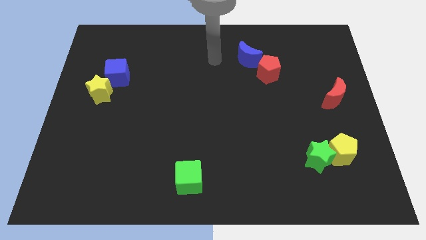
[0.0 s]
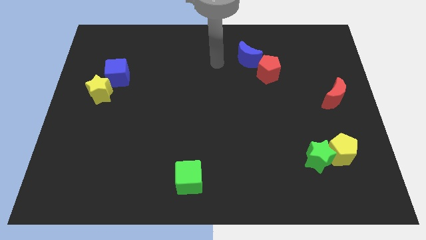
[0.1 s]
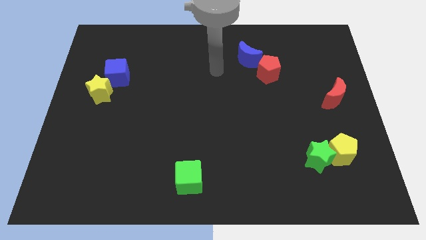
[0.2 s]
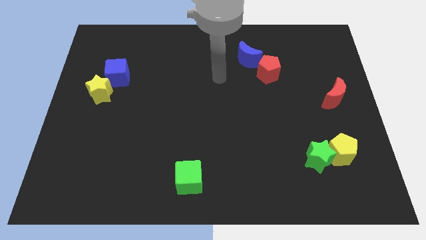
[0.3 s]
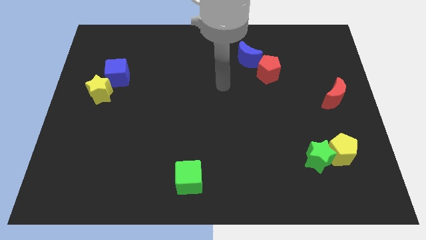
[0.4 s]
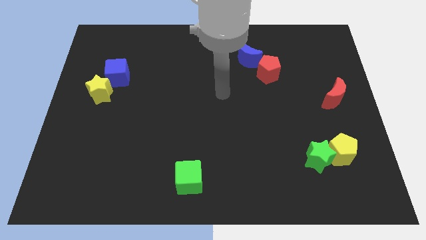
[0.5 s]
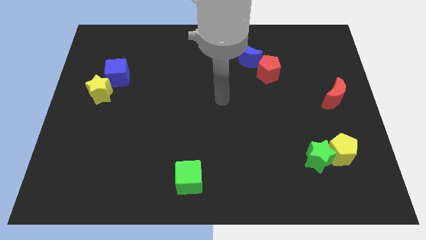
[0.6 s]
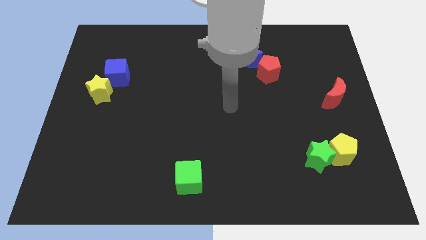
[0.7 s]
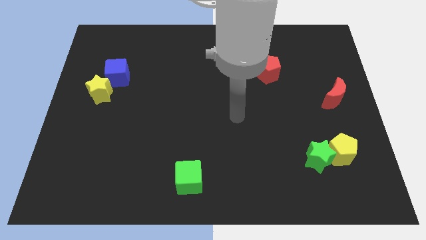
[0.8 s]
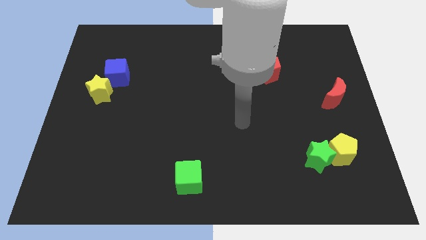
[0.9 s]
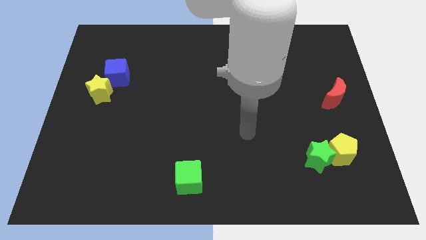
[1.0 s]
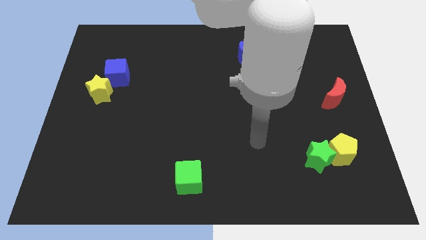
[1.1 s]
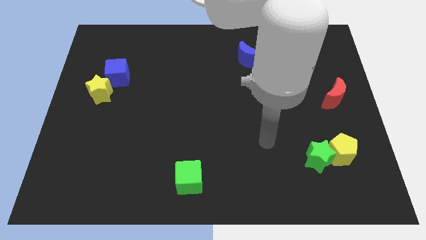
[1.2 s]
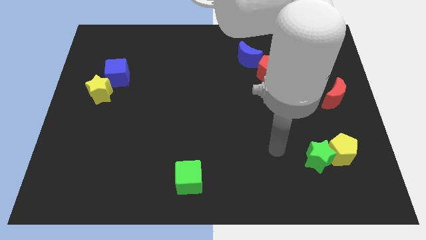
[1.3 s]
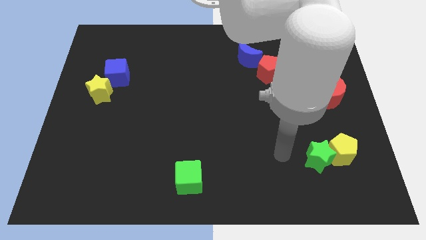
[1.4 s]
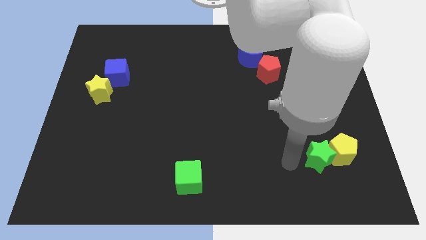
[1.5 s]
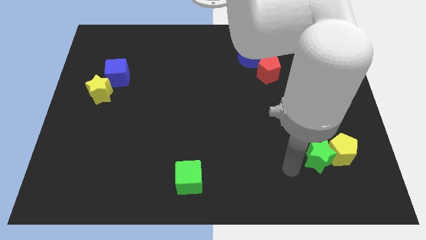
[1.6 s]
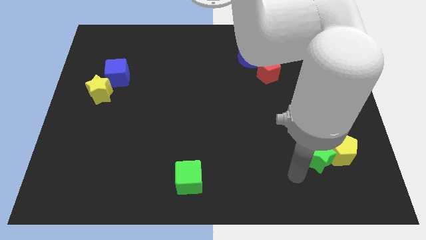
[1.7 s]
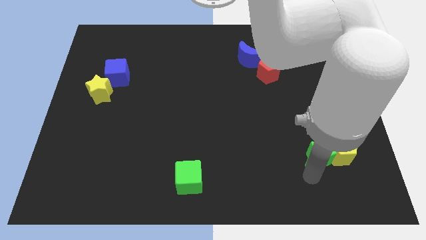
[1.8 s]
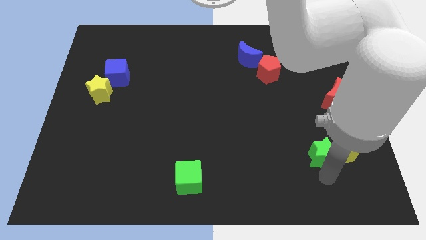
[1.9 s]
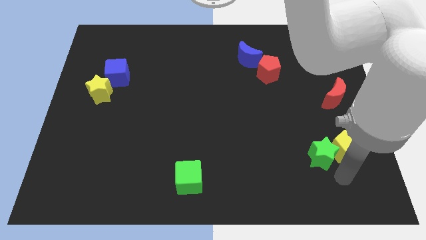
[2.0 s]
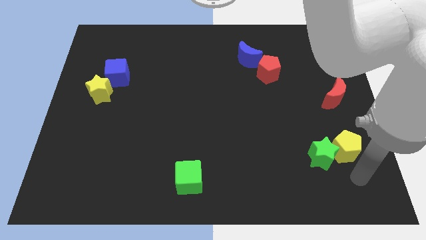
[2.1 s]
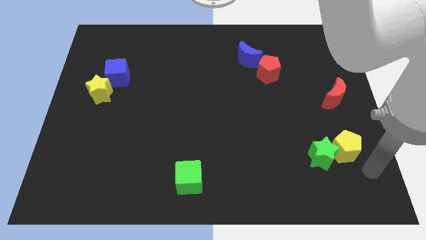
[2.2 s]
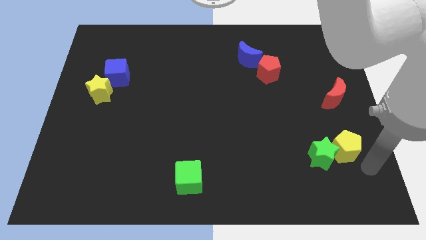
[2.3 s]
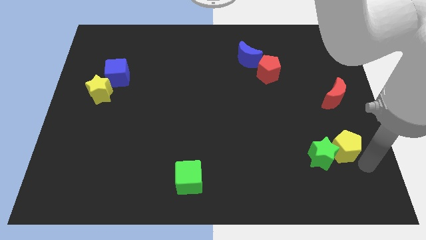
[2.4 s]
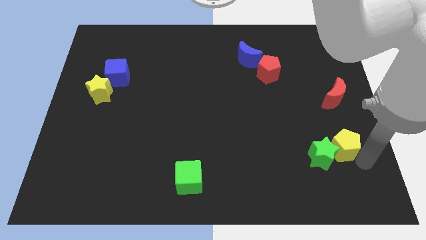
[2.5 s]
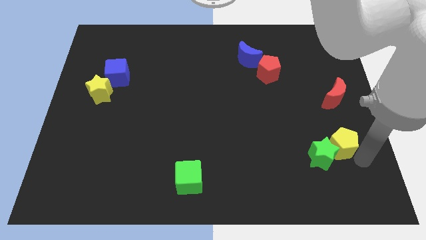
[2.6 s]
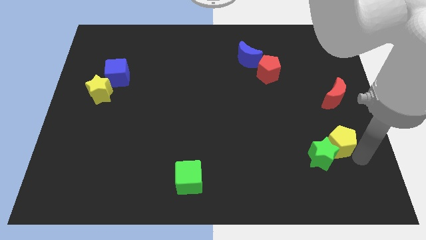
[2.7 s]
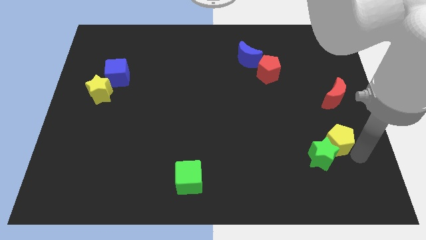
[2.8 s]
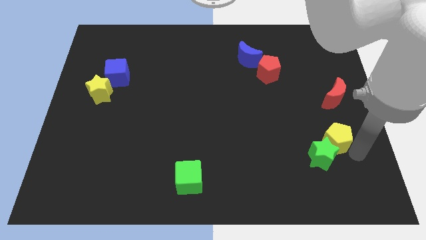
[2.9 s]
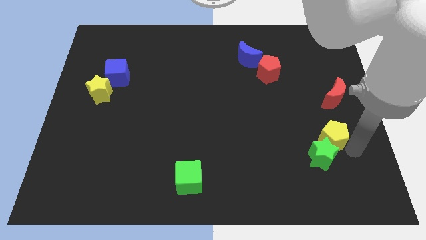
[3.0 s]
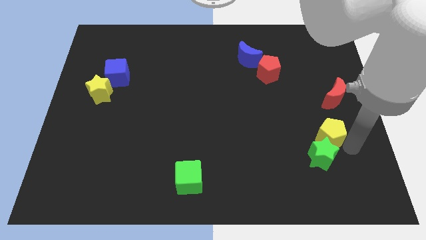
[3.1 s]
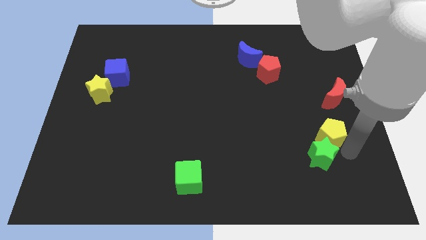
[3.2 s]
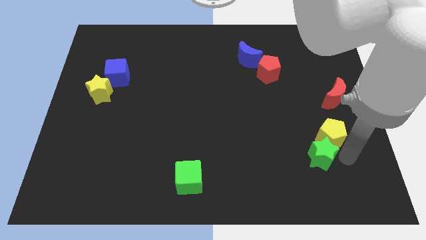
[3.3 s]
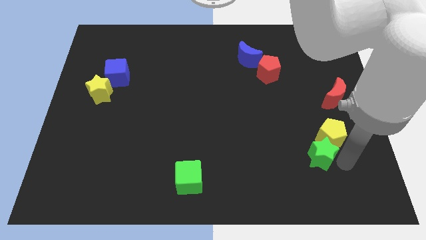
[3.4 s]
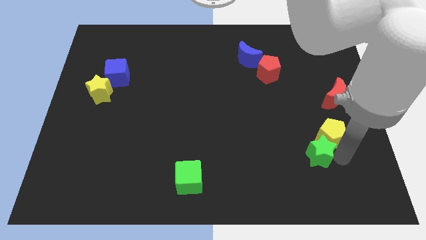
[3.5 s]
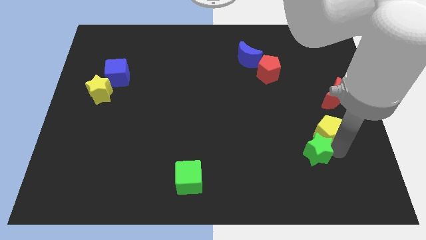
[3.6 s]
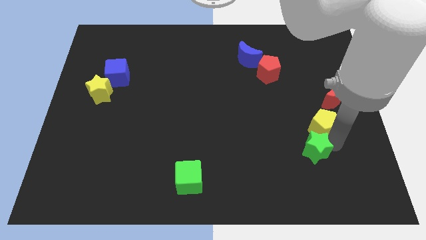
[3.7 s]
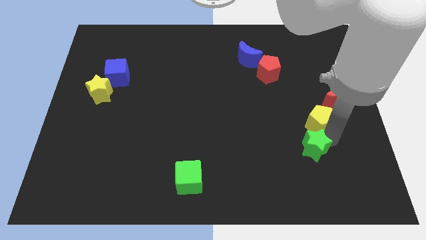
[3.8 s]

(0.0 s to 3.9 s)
slide the yellow pentagon a little up

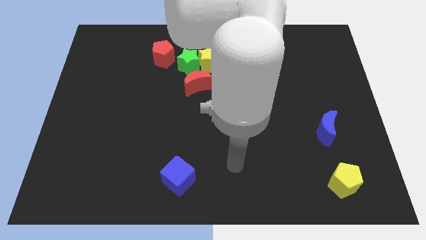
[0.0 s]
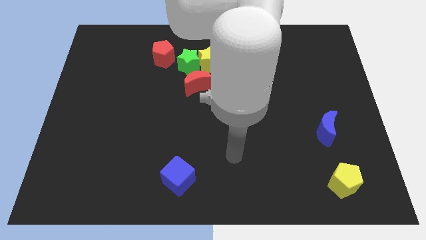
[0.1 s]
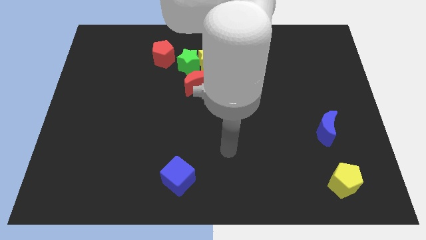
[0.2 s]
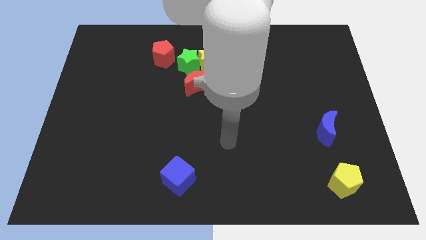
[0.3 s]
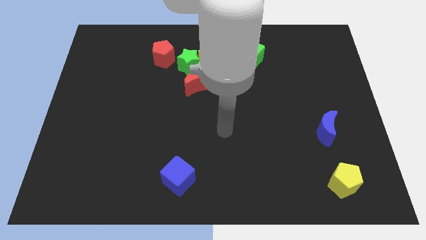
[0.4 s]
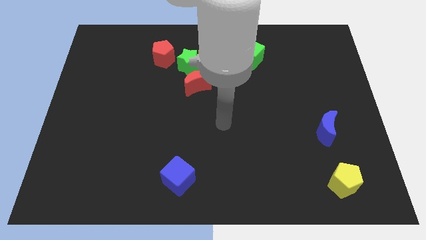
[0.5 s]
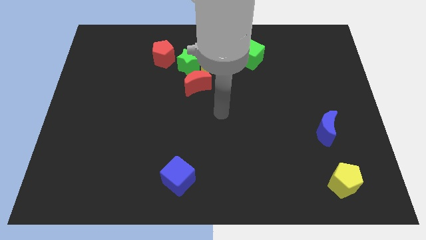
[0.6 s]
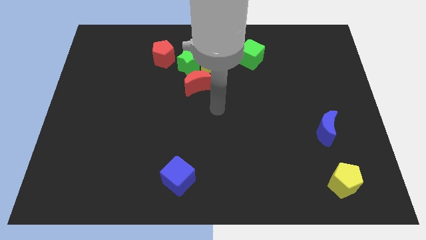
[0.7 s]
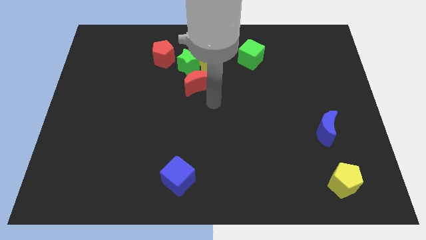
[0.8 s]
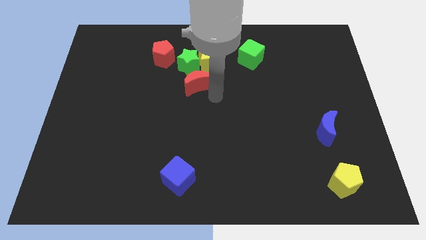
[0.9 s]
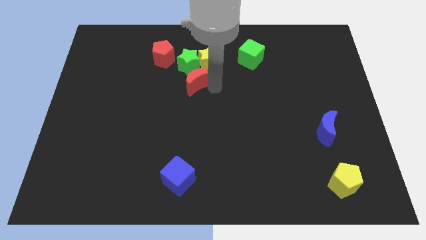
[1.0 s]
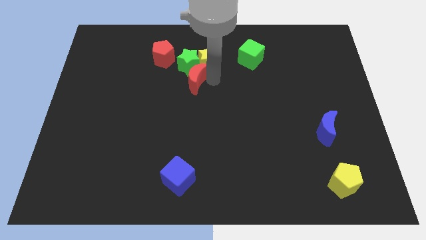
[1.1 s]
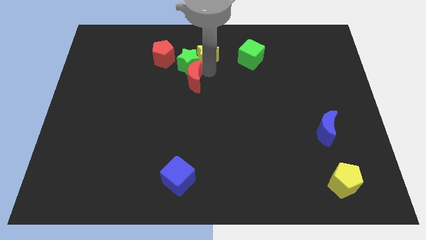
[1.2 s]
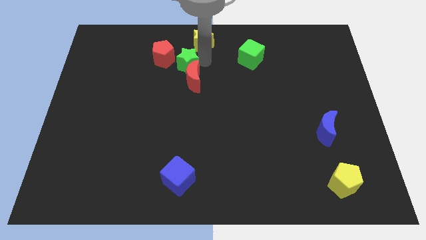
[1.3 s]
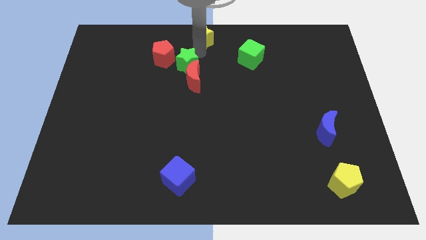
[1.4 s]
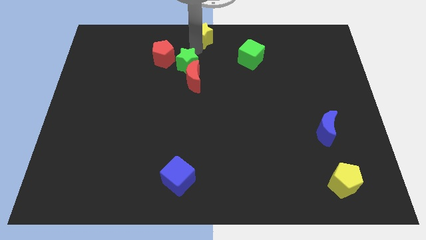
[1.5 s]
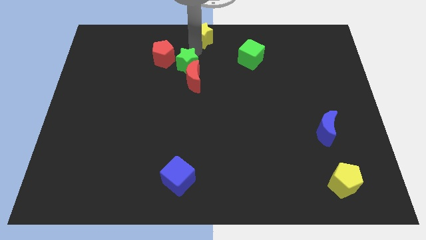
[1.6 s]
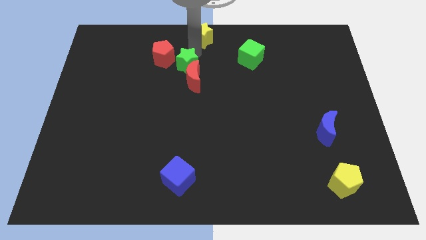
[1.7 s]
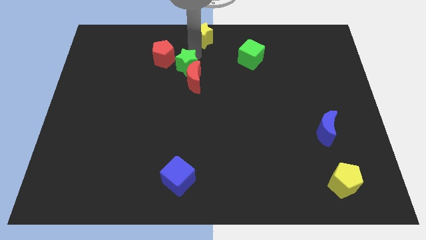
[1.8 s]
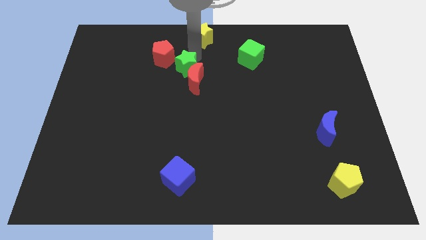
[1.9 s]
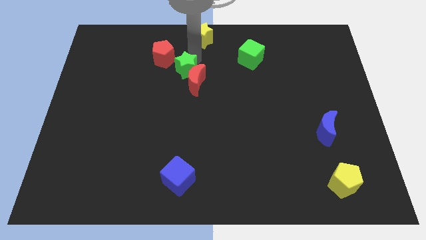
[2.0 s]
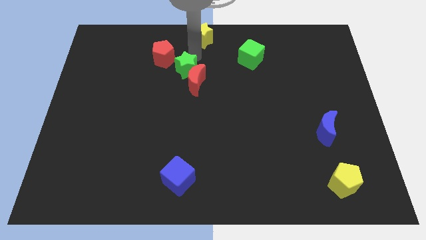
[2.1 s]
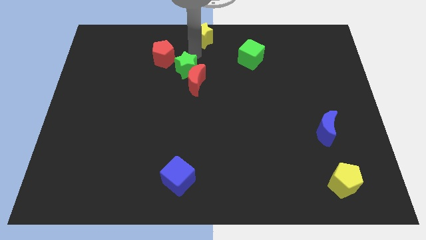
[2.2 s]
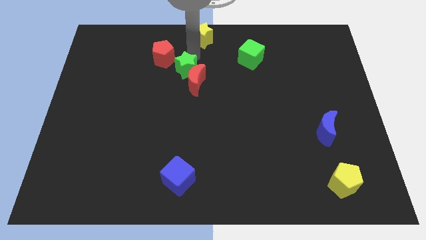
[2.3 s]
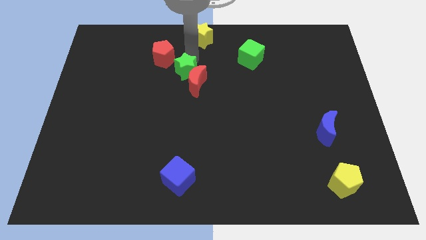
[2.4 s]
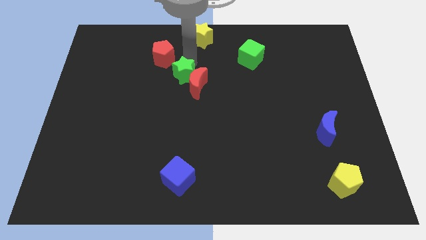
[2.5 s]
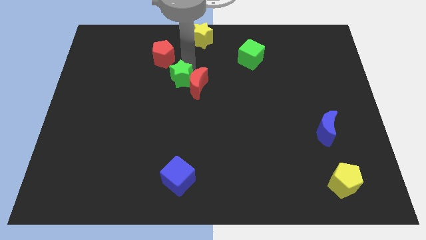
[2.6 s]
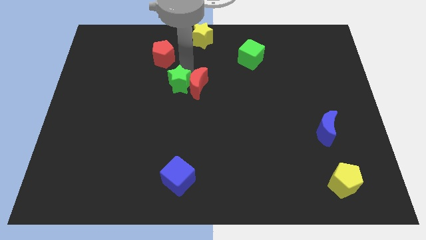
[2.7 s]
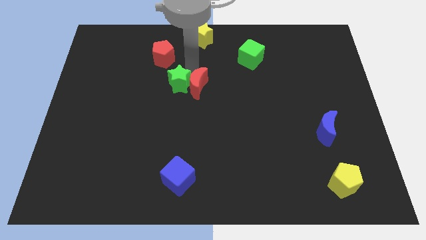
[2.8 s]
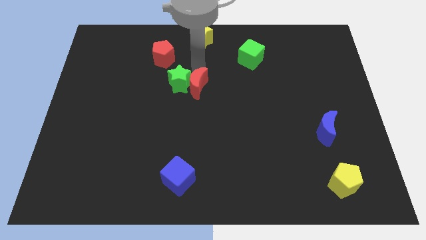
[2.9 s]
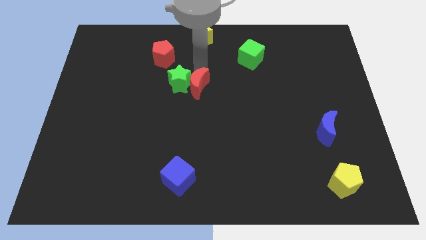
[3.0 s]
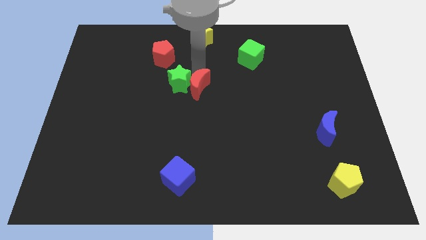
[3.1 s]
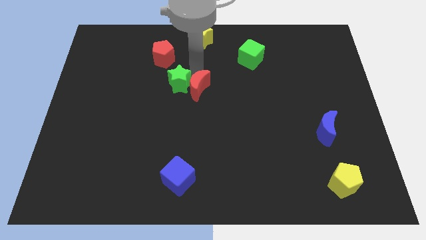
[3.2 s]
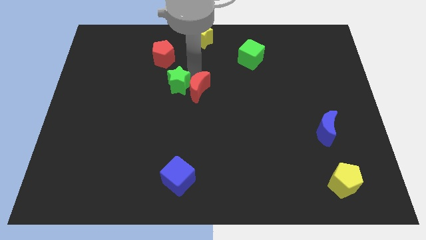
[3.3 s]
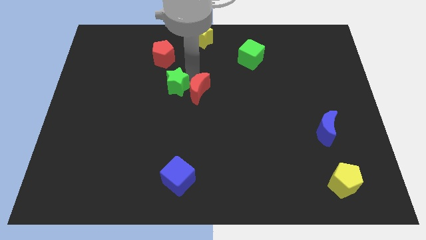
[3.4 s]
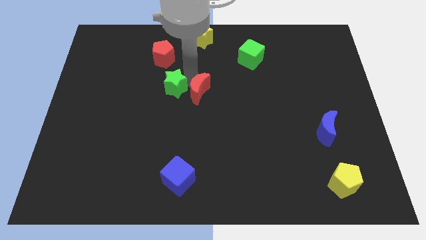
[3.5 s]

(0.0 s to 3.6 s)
move the green star down and left diagonally a bit

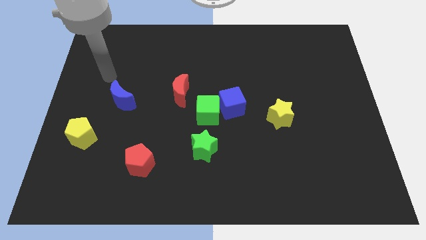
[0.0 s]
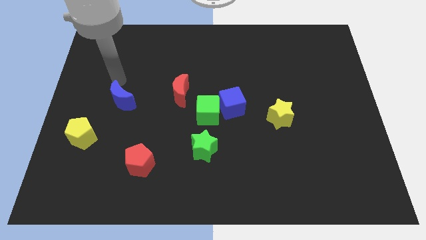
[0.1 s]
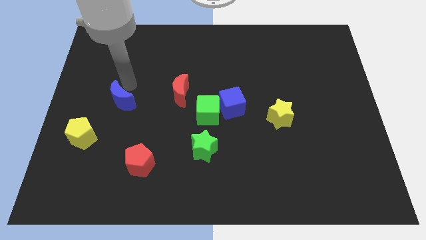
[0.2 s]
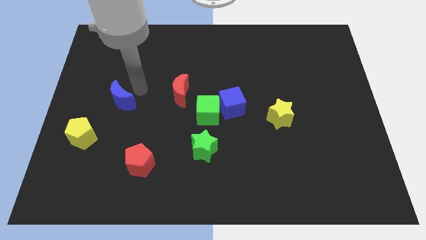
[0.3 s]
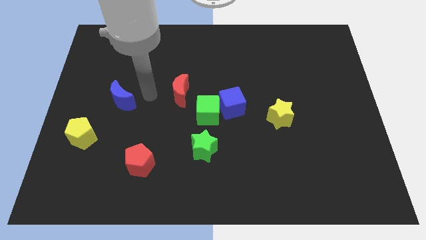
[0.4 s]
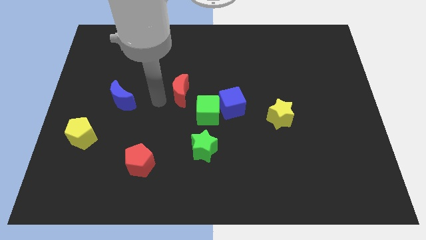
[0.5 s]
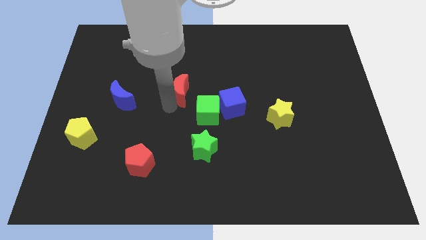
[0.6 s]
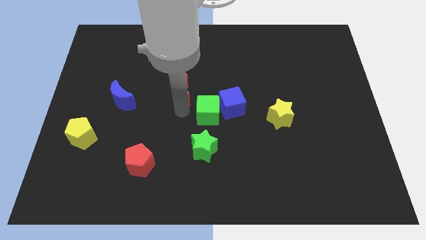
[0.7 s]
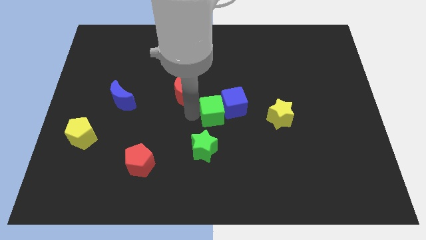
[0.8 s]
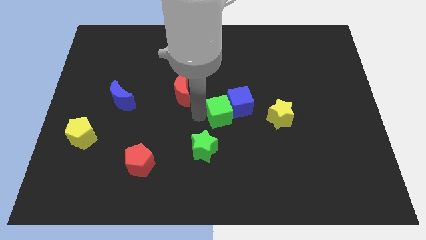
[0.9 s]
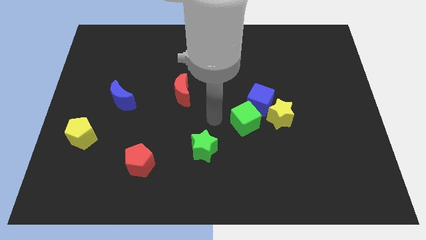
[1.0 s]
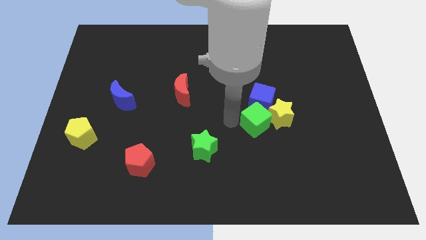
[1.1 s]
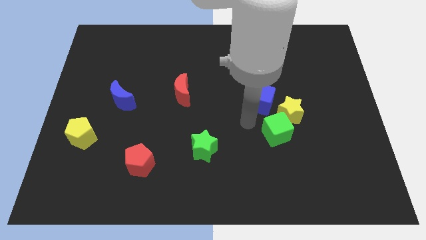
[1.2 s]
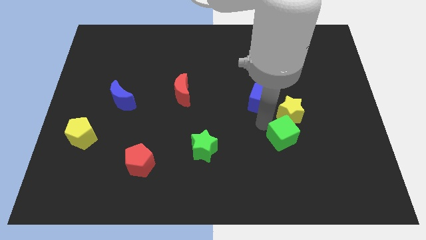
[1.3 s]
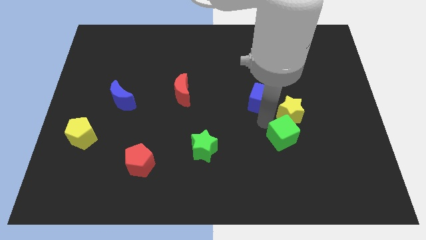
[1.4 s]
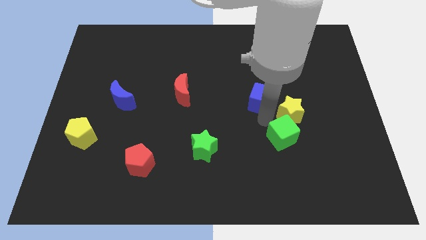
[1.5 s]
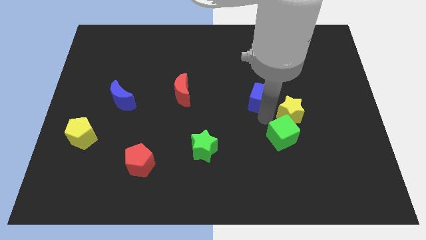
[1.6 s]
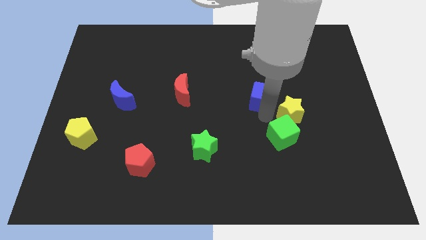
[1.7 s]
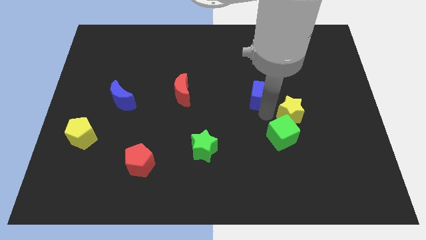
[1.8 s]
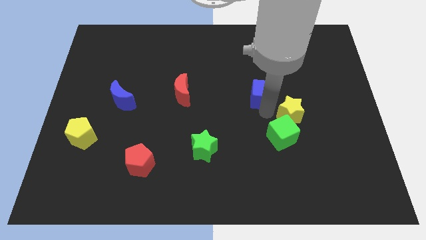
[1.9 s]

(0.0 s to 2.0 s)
move the blue cube up and then right somewhat
